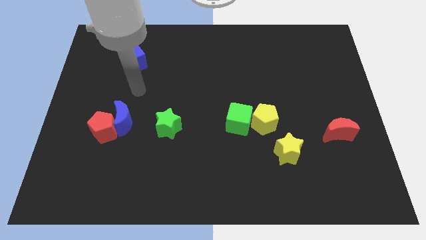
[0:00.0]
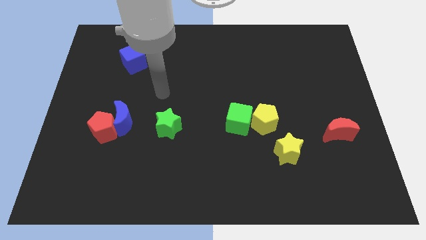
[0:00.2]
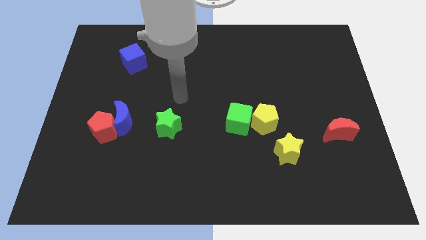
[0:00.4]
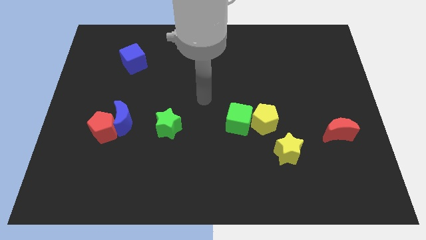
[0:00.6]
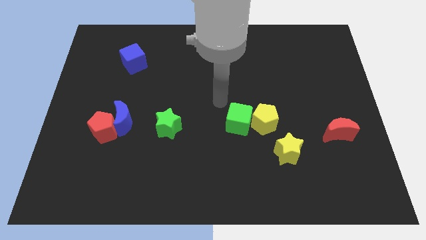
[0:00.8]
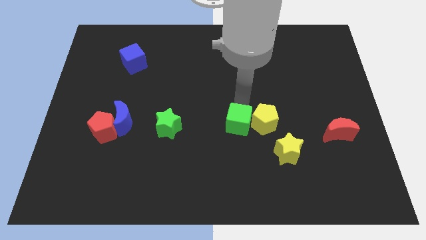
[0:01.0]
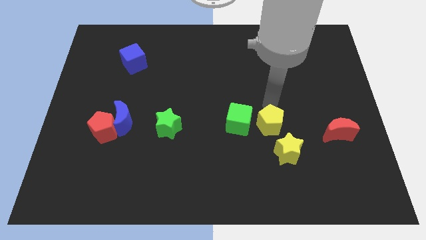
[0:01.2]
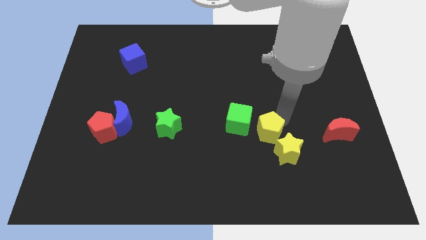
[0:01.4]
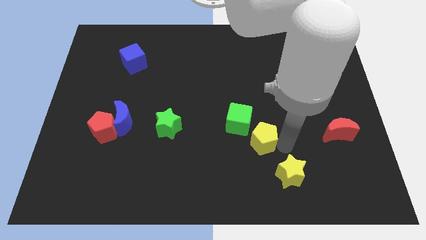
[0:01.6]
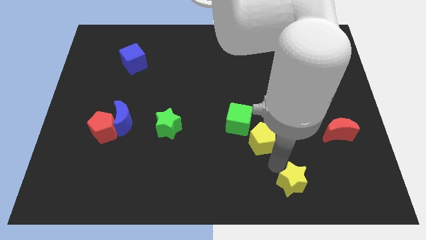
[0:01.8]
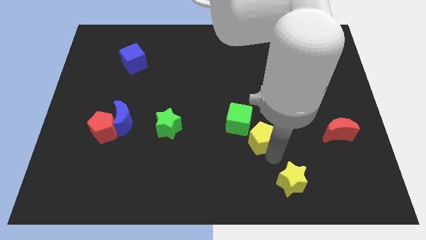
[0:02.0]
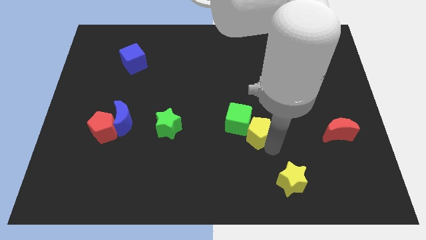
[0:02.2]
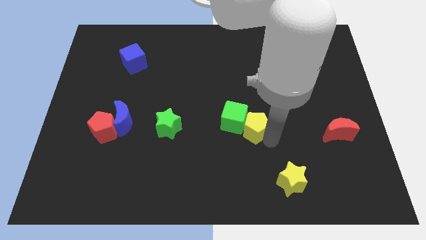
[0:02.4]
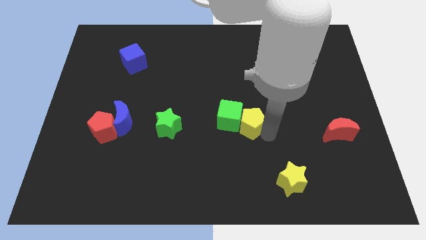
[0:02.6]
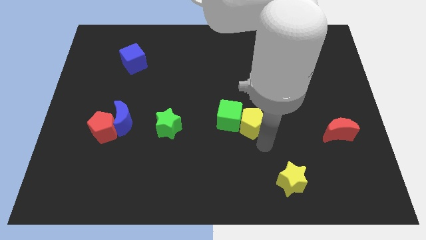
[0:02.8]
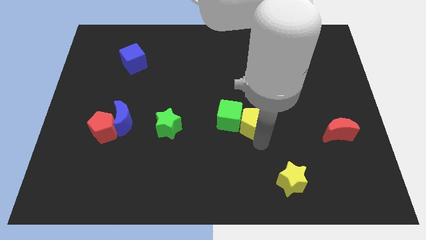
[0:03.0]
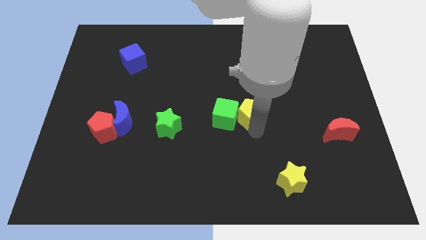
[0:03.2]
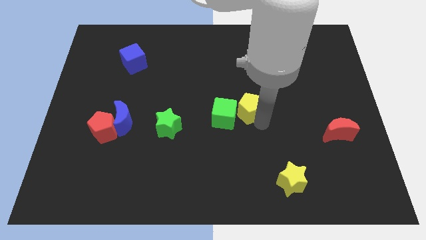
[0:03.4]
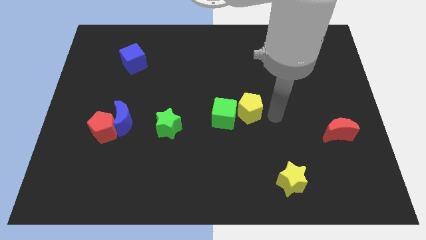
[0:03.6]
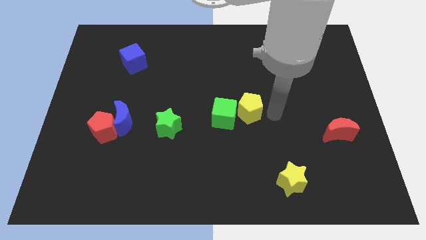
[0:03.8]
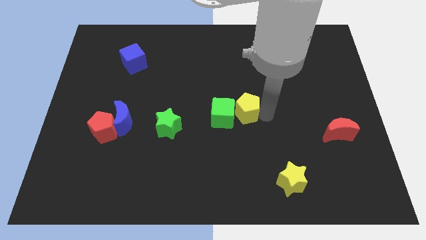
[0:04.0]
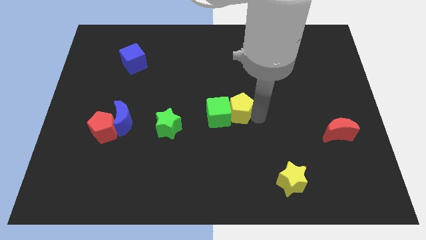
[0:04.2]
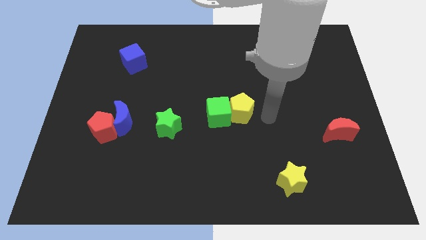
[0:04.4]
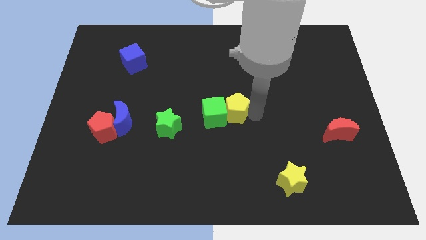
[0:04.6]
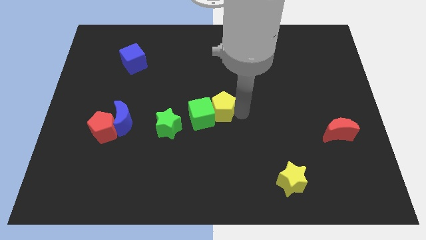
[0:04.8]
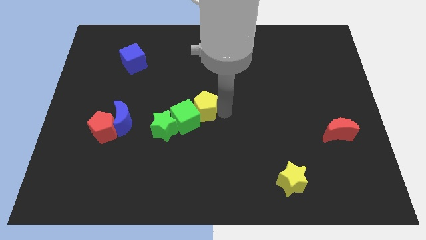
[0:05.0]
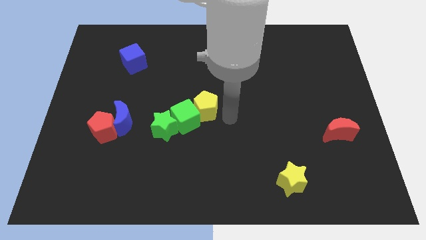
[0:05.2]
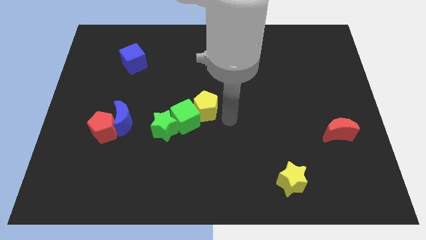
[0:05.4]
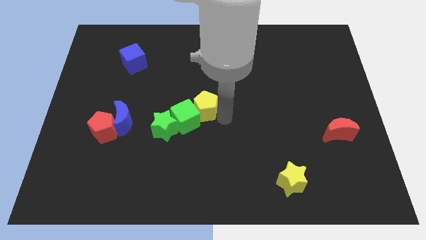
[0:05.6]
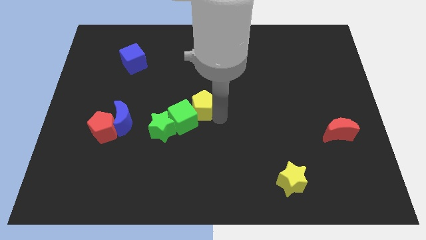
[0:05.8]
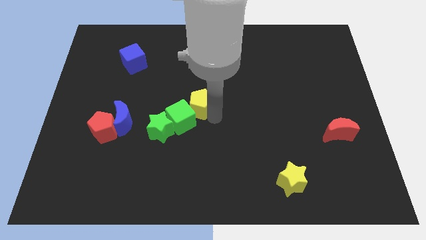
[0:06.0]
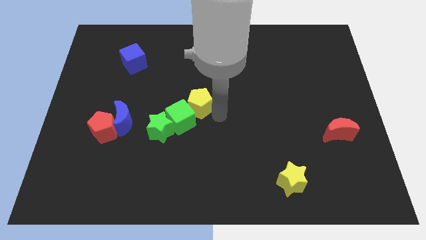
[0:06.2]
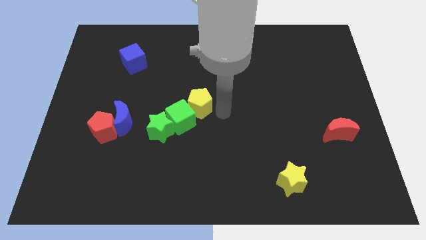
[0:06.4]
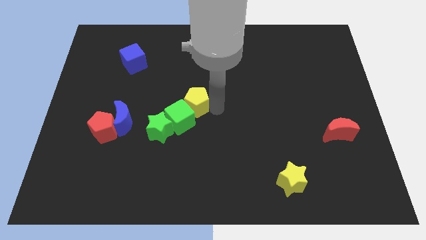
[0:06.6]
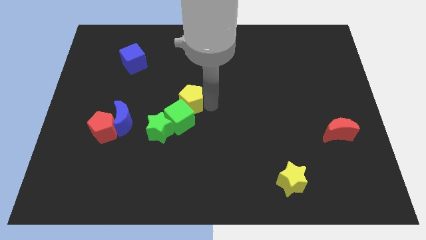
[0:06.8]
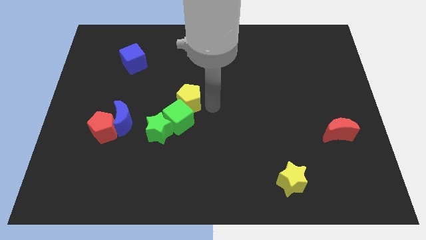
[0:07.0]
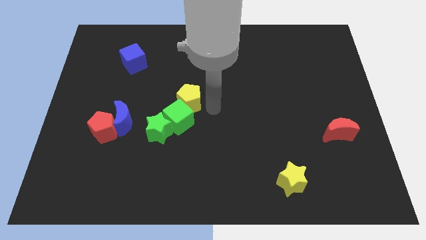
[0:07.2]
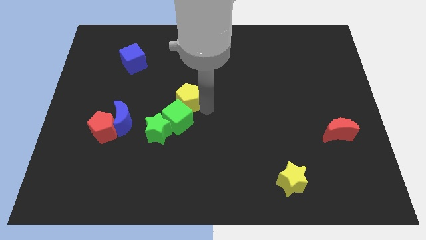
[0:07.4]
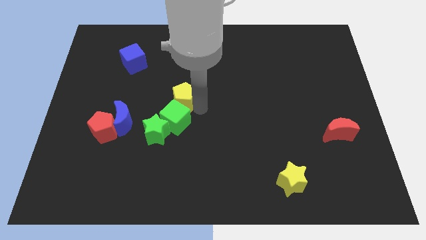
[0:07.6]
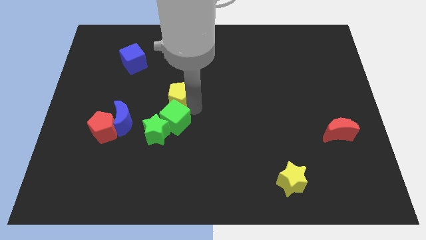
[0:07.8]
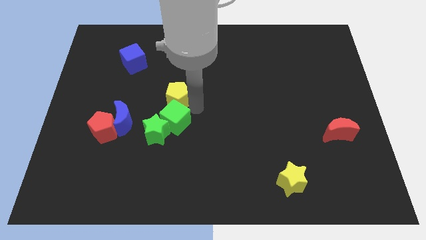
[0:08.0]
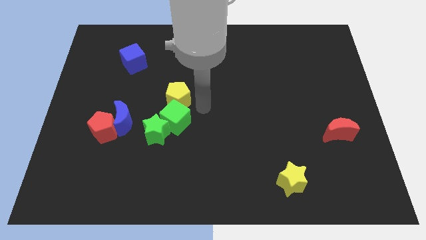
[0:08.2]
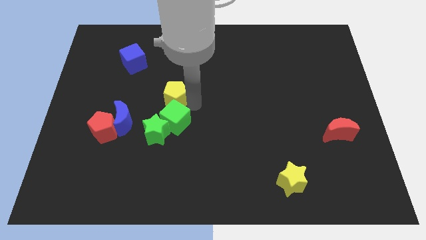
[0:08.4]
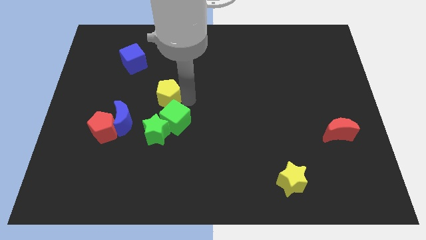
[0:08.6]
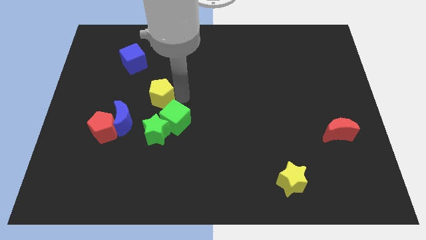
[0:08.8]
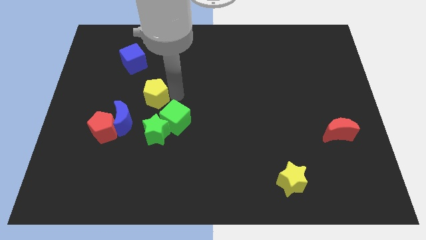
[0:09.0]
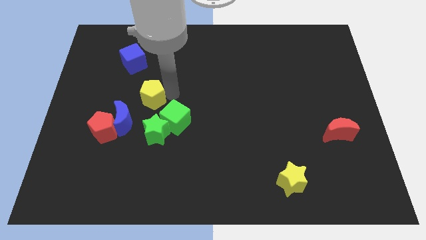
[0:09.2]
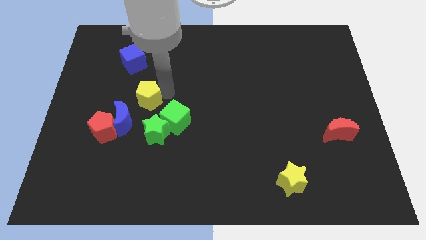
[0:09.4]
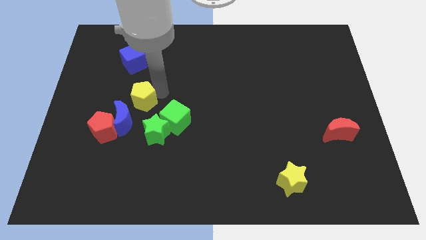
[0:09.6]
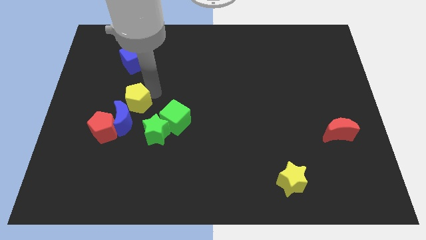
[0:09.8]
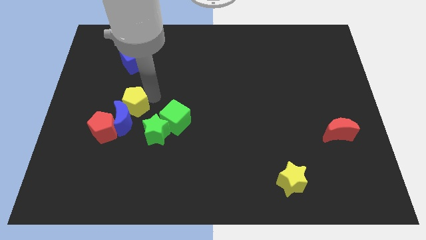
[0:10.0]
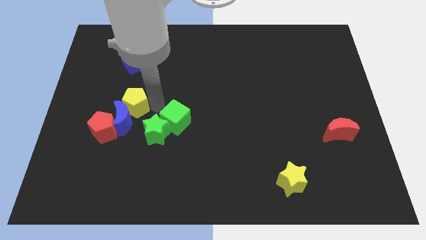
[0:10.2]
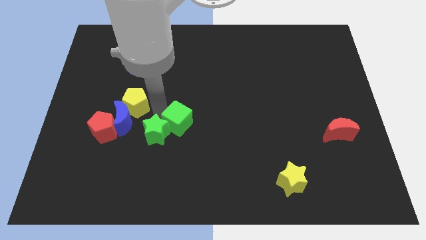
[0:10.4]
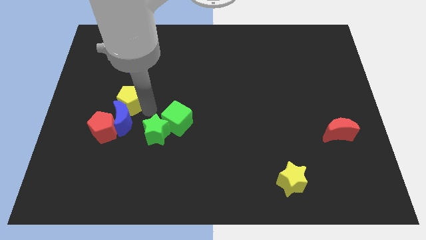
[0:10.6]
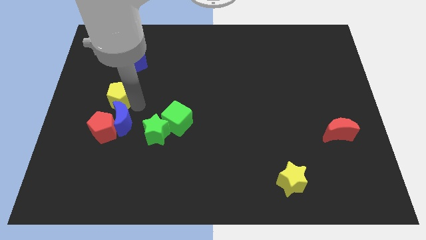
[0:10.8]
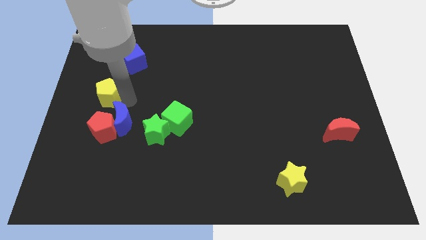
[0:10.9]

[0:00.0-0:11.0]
push the yellow pentagon to the left side of the board

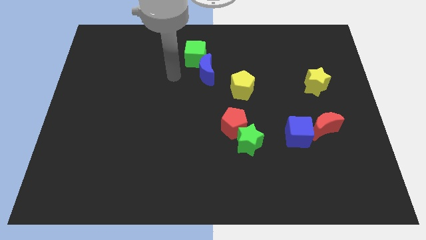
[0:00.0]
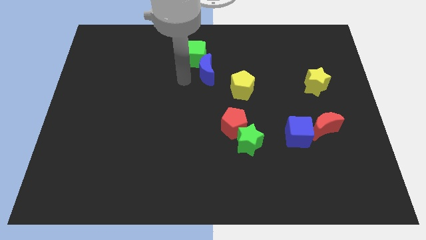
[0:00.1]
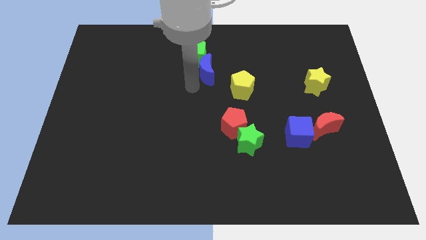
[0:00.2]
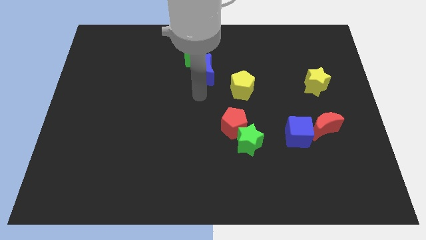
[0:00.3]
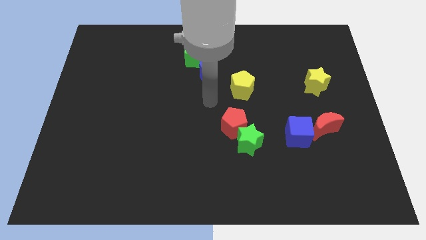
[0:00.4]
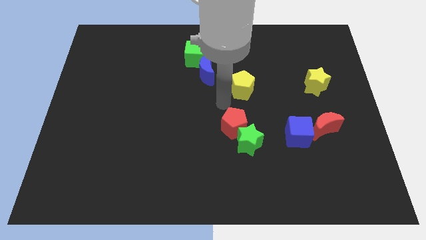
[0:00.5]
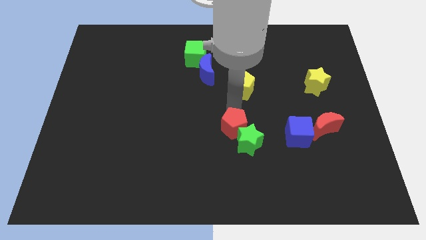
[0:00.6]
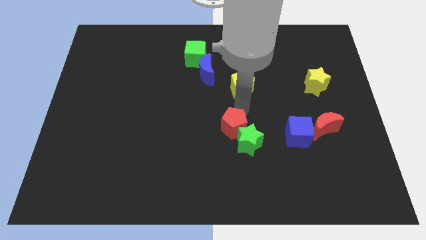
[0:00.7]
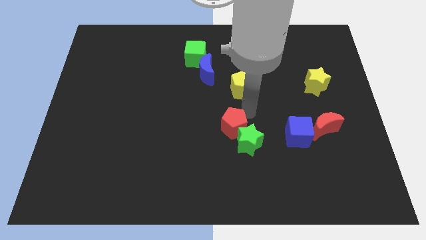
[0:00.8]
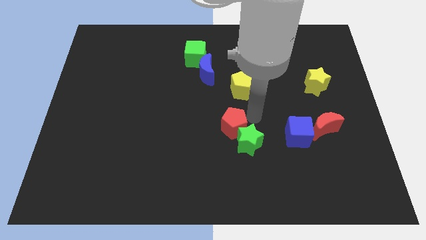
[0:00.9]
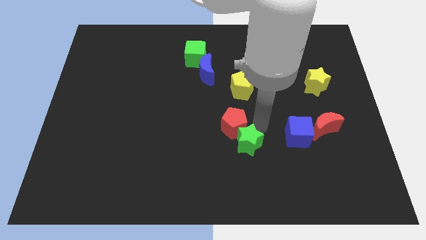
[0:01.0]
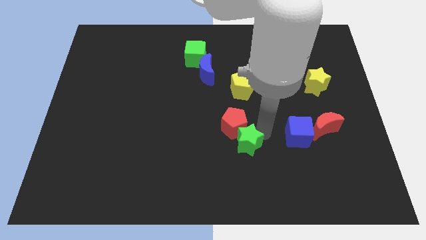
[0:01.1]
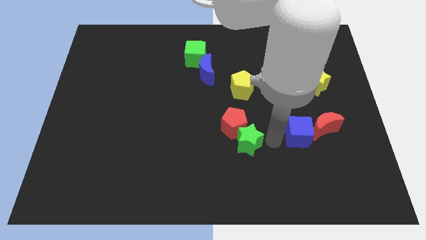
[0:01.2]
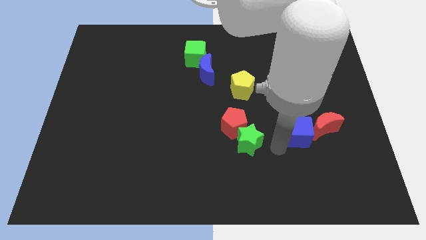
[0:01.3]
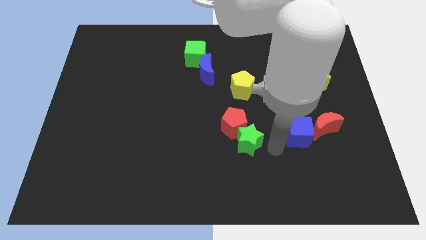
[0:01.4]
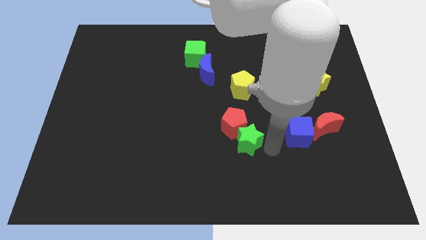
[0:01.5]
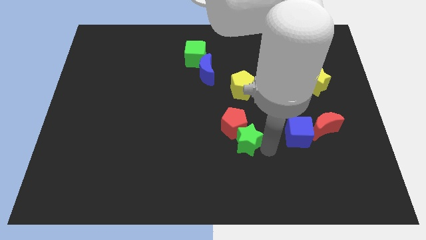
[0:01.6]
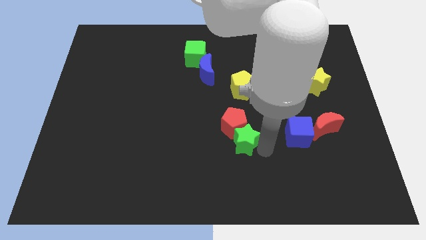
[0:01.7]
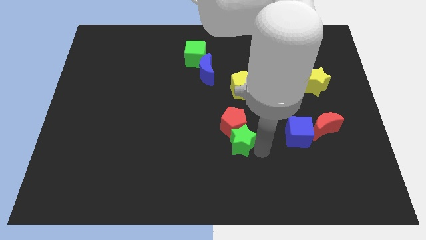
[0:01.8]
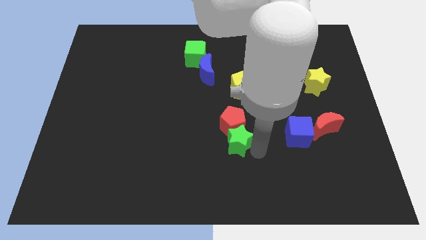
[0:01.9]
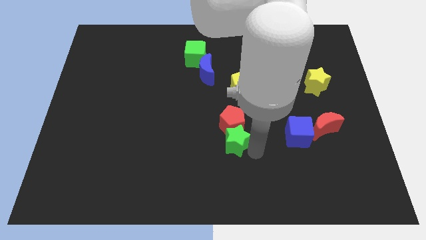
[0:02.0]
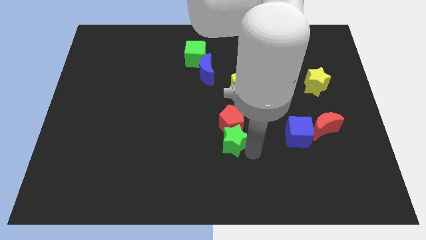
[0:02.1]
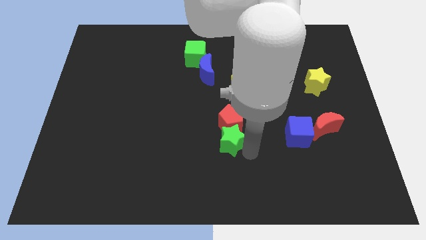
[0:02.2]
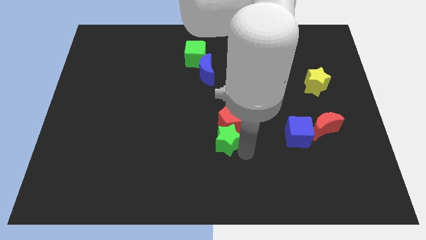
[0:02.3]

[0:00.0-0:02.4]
put the green star to the middle of the board
